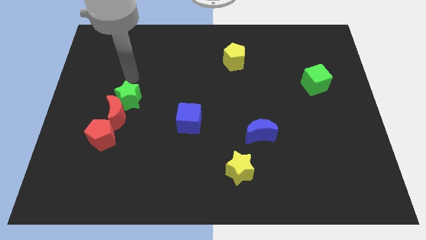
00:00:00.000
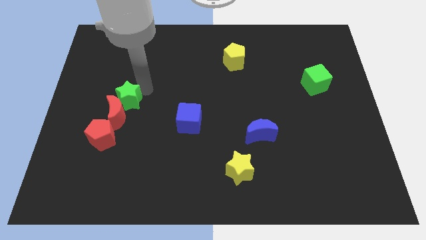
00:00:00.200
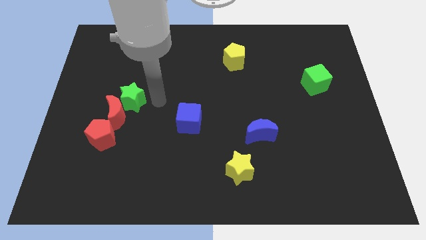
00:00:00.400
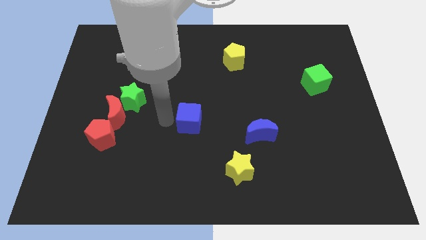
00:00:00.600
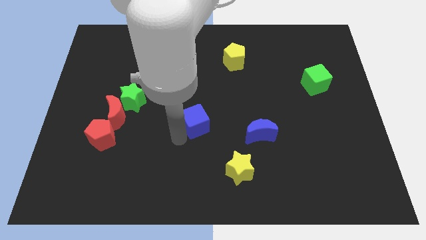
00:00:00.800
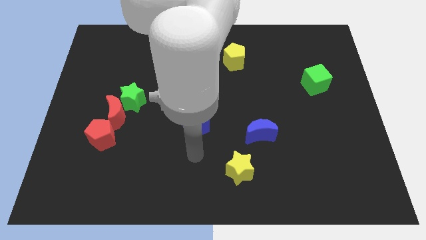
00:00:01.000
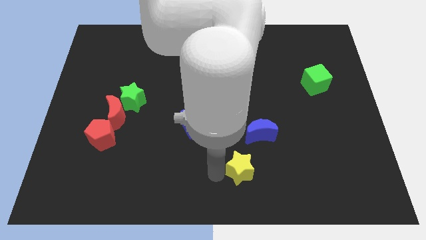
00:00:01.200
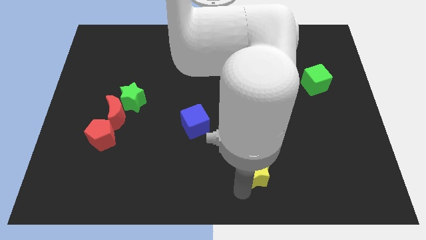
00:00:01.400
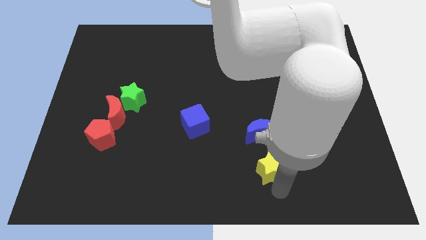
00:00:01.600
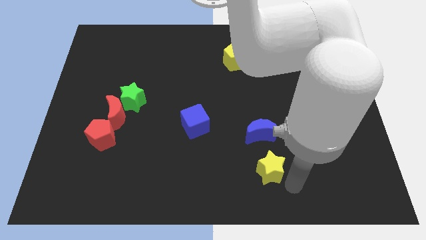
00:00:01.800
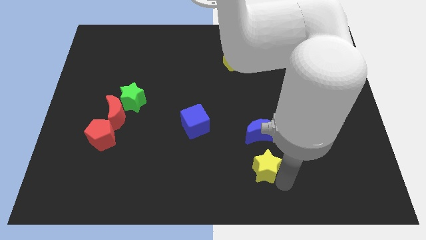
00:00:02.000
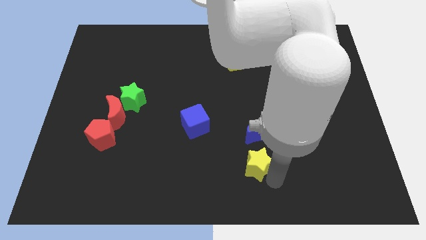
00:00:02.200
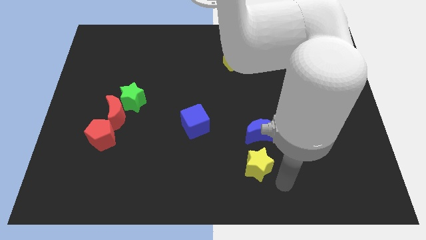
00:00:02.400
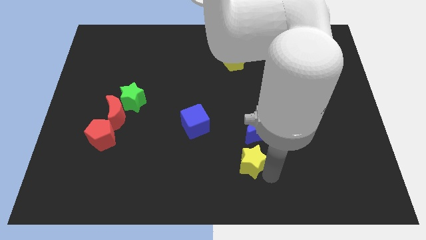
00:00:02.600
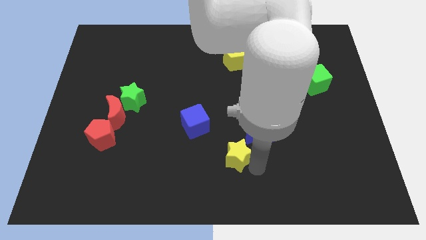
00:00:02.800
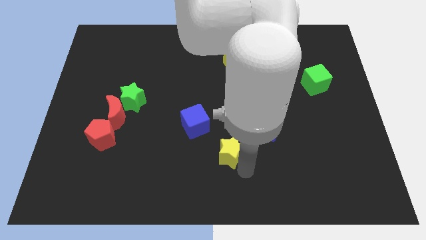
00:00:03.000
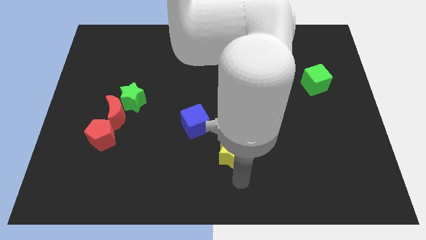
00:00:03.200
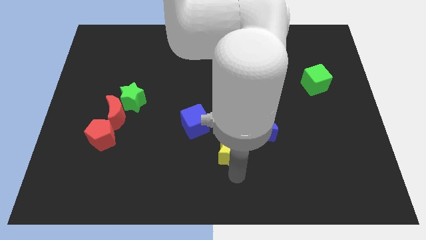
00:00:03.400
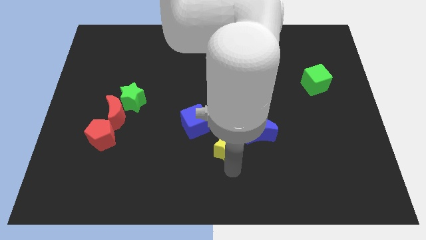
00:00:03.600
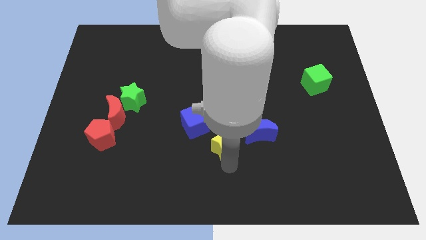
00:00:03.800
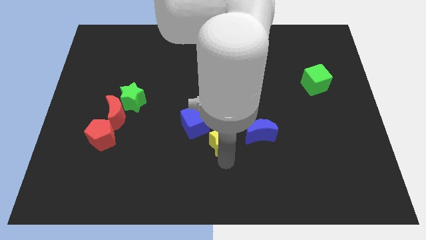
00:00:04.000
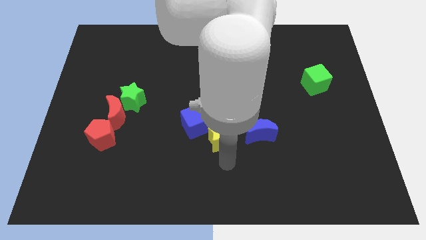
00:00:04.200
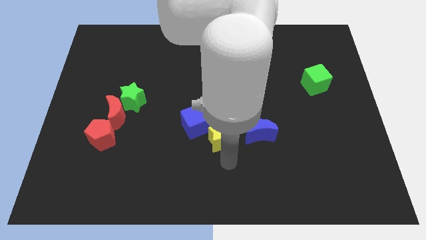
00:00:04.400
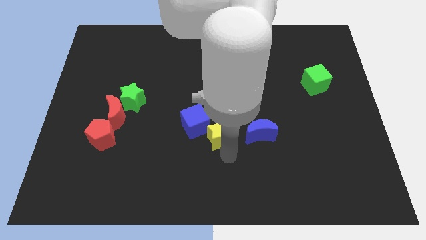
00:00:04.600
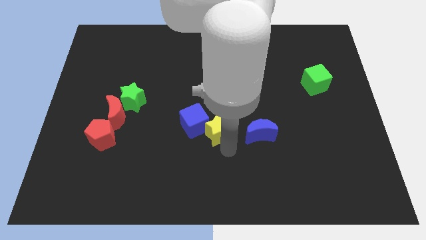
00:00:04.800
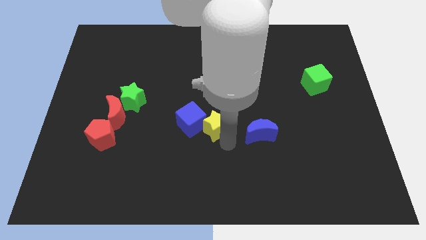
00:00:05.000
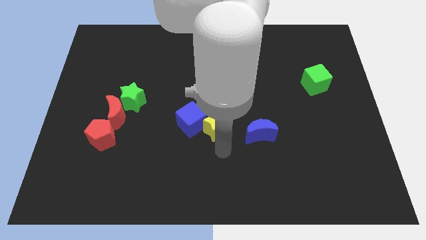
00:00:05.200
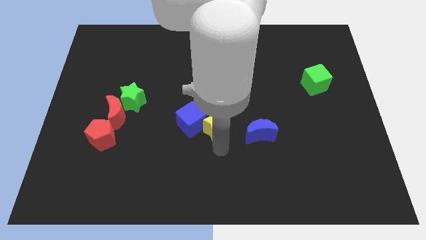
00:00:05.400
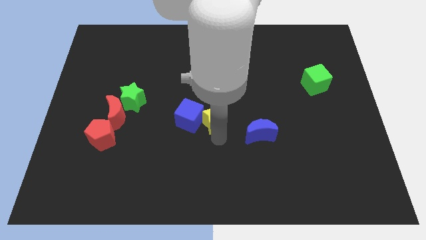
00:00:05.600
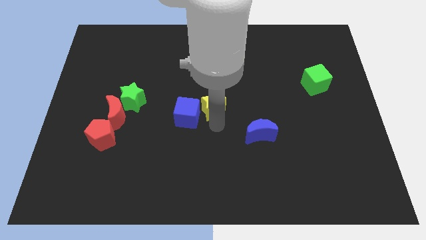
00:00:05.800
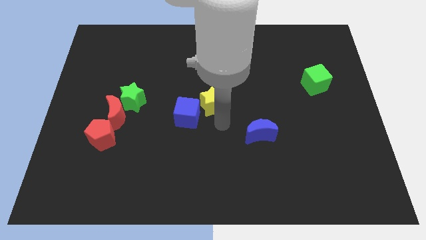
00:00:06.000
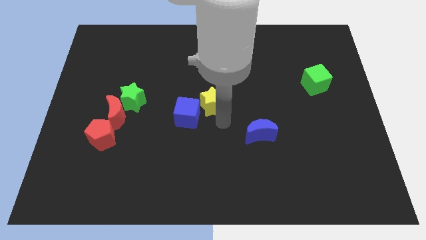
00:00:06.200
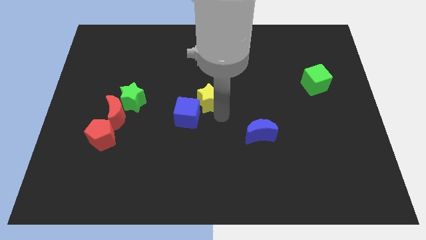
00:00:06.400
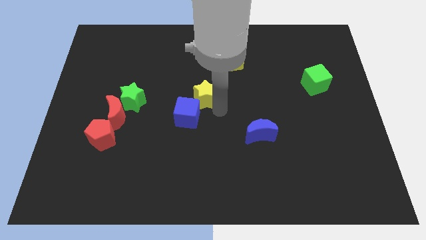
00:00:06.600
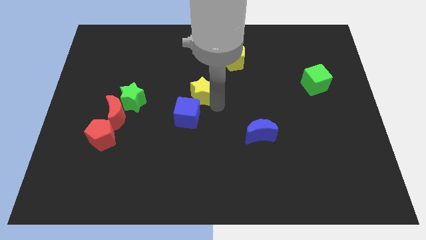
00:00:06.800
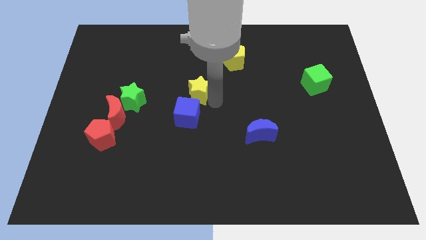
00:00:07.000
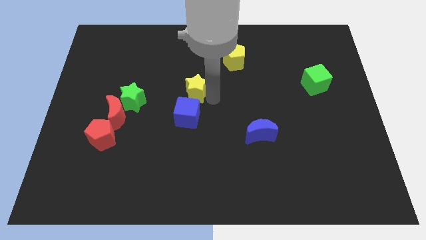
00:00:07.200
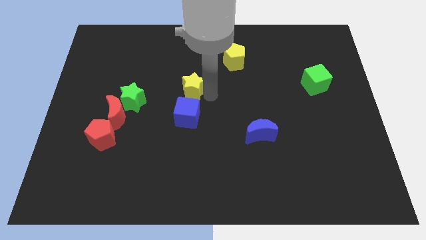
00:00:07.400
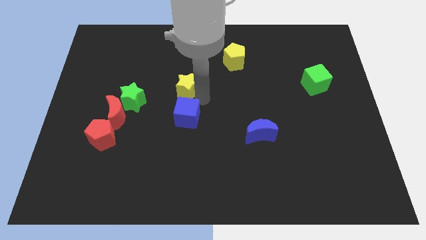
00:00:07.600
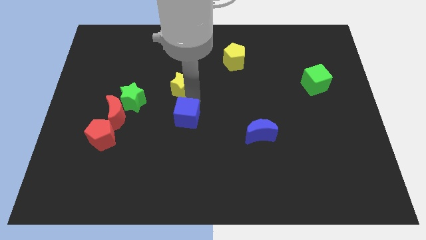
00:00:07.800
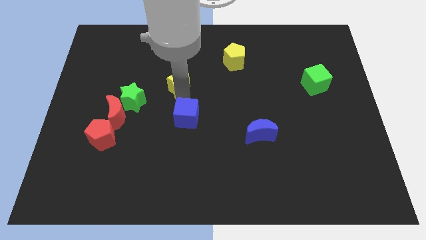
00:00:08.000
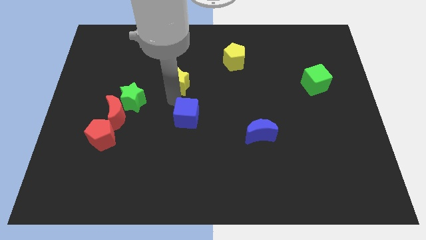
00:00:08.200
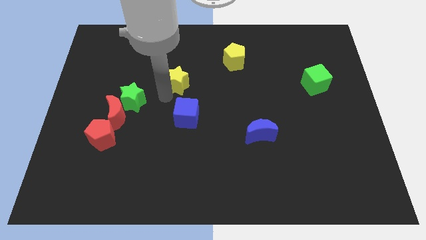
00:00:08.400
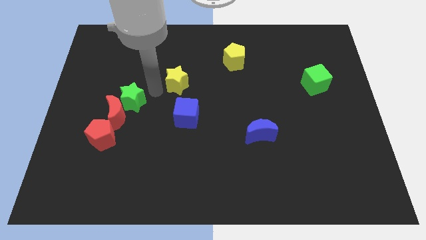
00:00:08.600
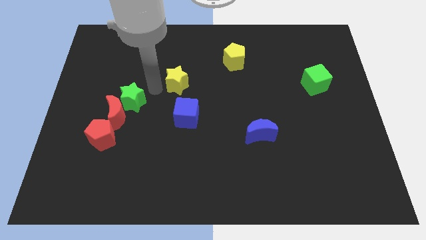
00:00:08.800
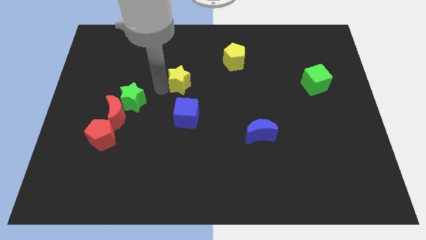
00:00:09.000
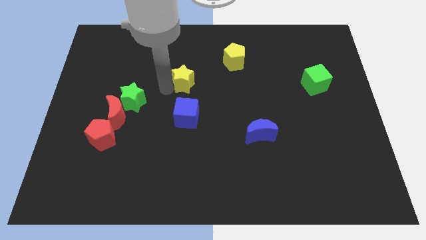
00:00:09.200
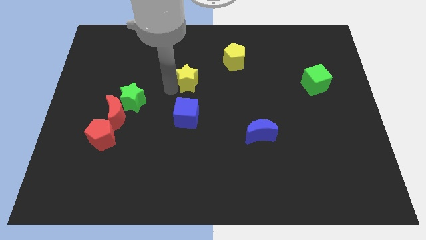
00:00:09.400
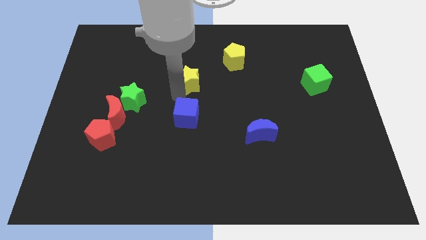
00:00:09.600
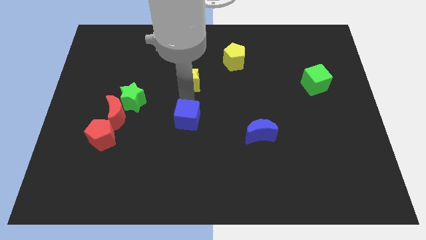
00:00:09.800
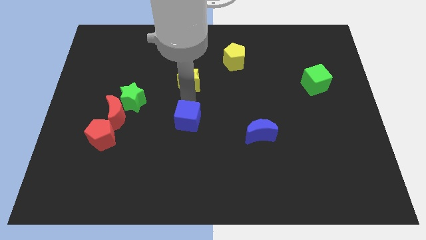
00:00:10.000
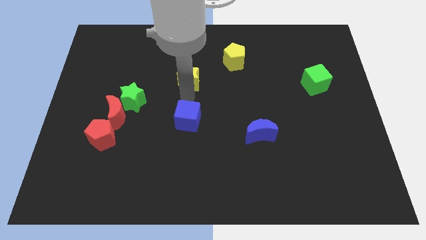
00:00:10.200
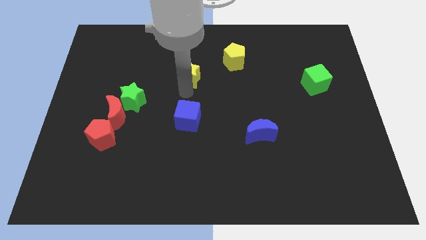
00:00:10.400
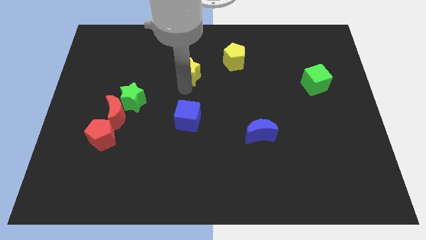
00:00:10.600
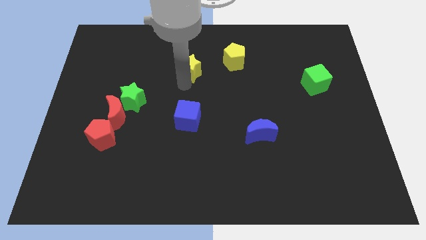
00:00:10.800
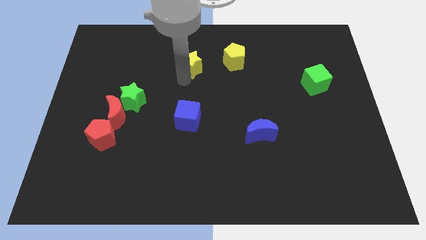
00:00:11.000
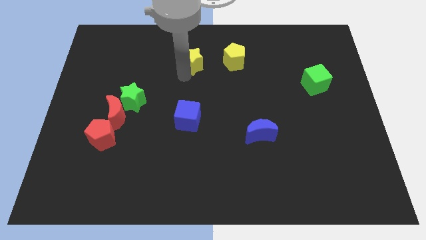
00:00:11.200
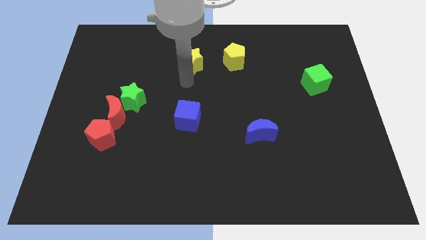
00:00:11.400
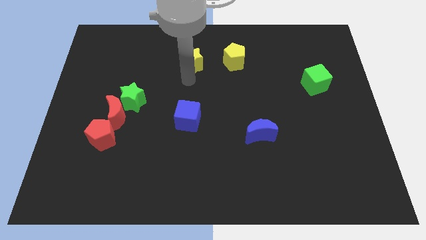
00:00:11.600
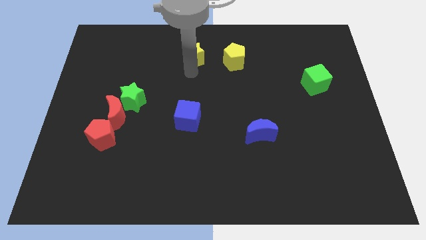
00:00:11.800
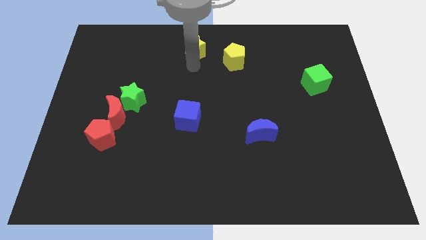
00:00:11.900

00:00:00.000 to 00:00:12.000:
slide the yellow star to the top

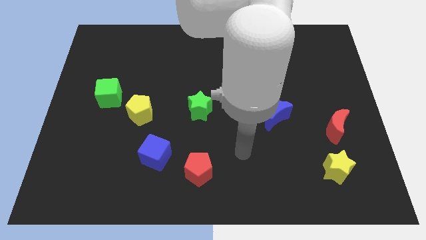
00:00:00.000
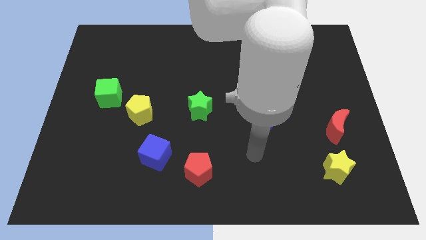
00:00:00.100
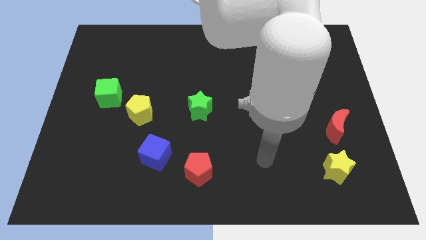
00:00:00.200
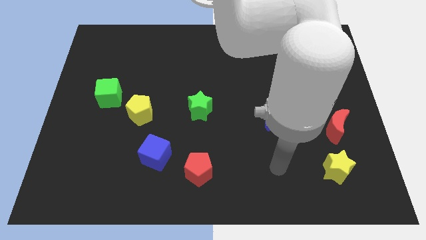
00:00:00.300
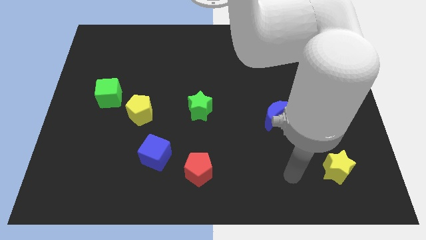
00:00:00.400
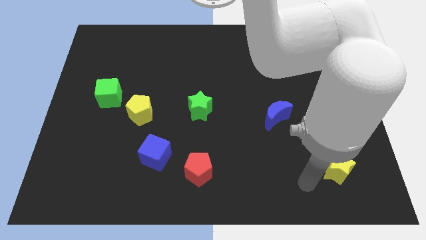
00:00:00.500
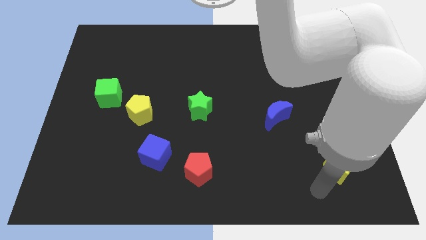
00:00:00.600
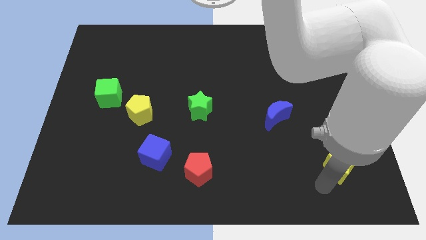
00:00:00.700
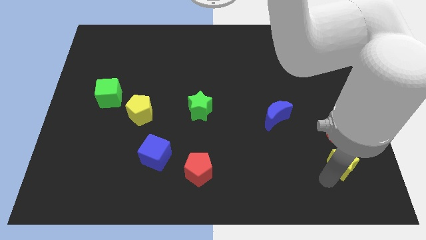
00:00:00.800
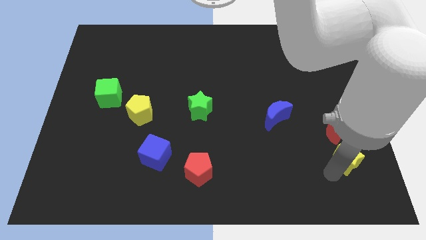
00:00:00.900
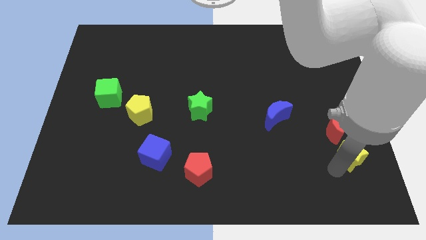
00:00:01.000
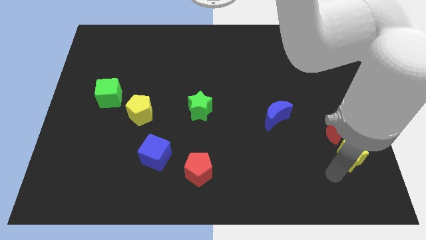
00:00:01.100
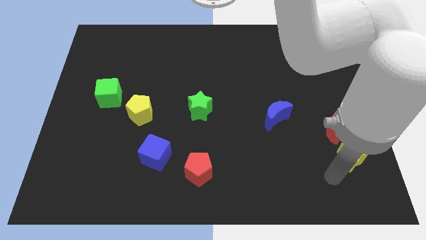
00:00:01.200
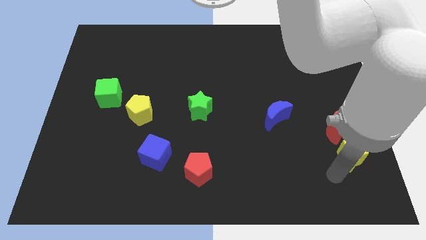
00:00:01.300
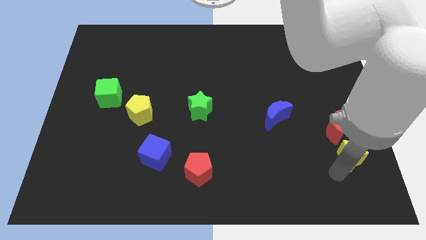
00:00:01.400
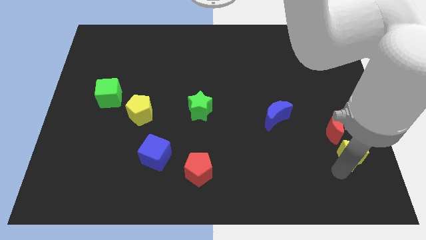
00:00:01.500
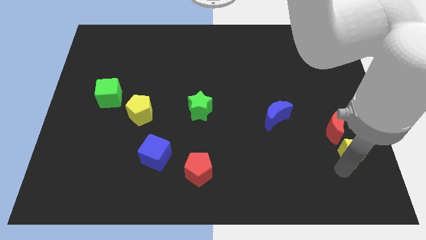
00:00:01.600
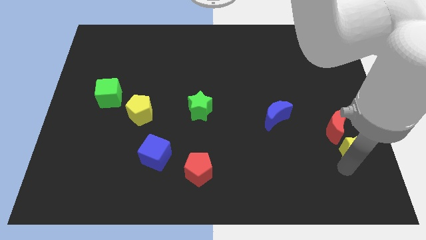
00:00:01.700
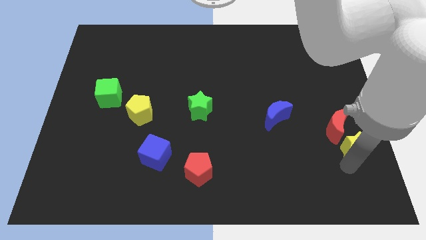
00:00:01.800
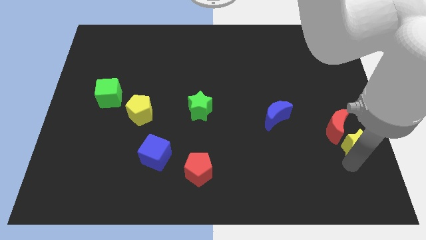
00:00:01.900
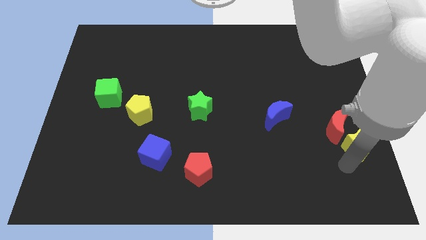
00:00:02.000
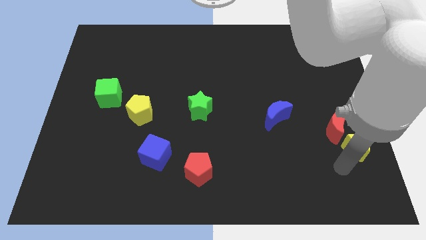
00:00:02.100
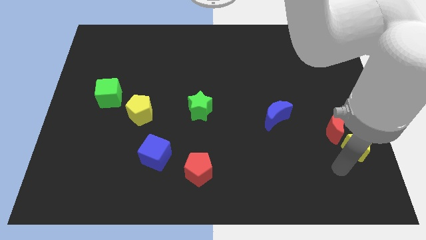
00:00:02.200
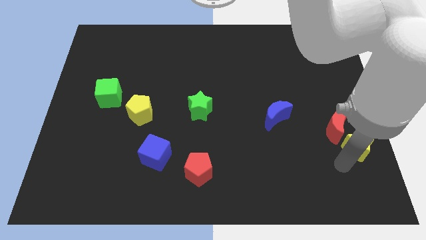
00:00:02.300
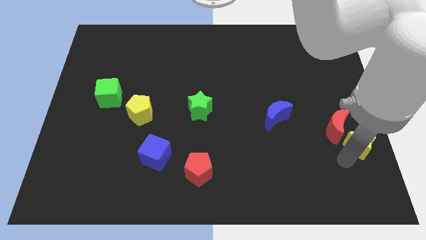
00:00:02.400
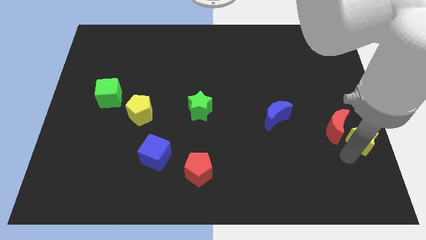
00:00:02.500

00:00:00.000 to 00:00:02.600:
put the yellow star to the right side
